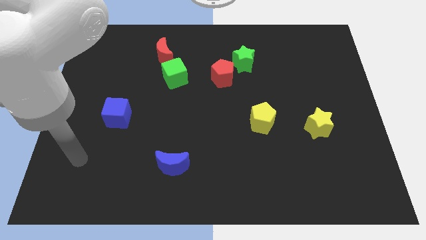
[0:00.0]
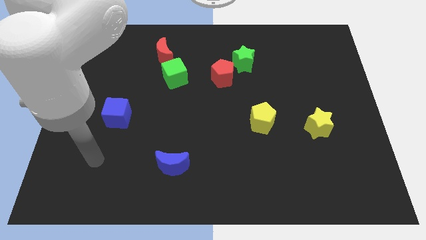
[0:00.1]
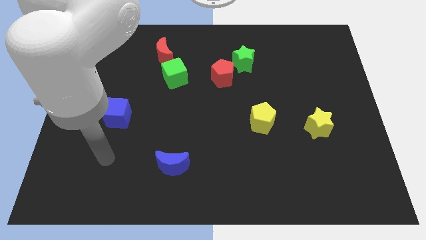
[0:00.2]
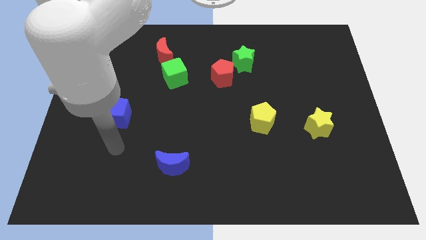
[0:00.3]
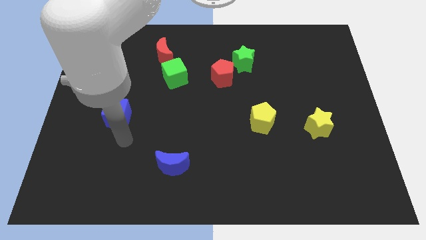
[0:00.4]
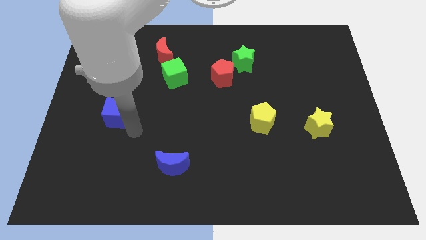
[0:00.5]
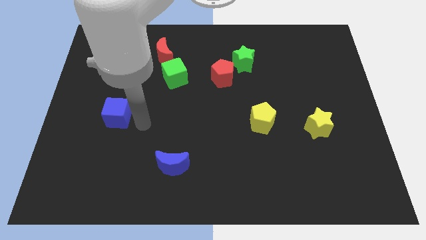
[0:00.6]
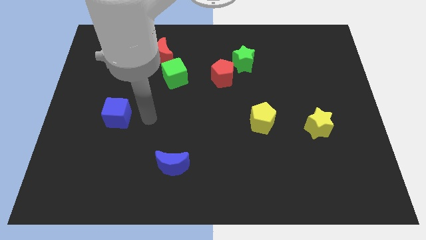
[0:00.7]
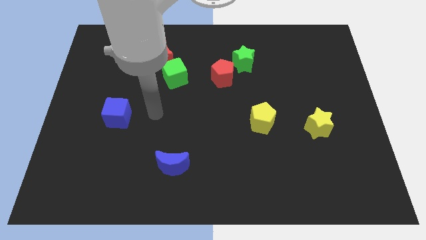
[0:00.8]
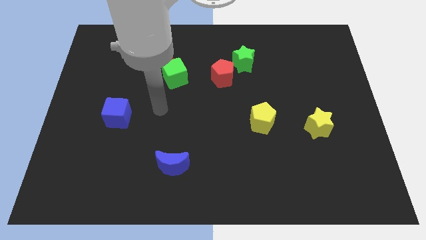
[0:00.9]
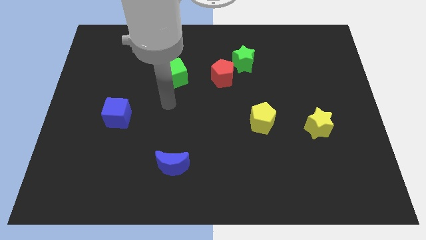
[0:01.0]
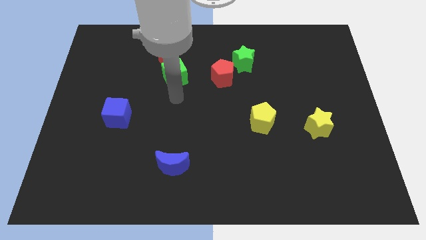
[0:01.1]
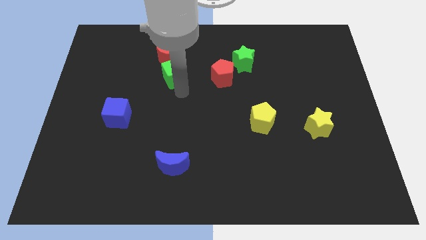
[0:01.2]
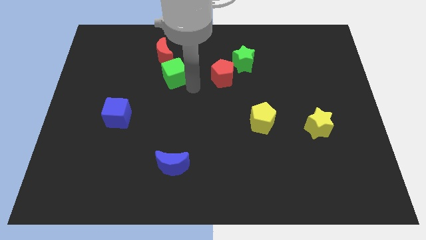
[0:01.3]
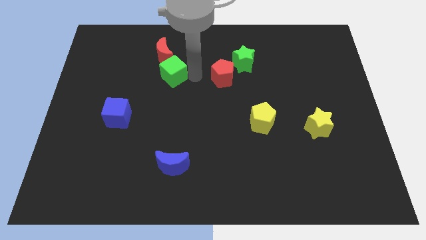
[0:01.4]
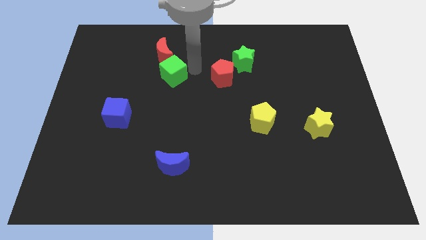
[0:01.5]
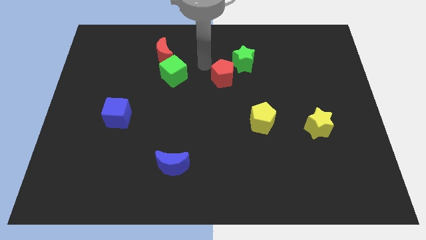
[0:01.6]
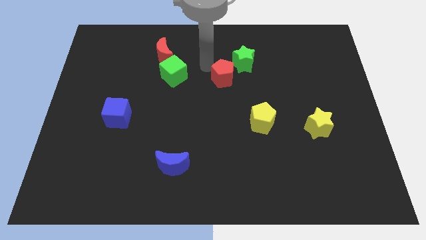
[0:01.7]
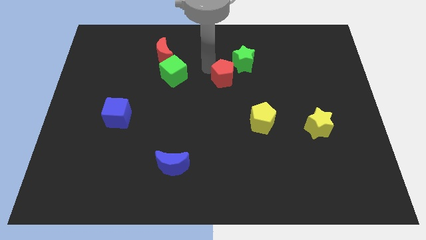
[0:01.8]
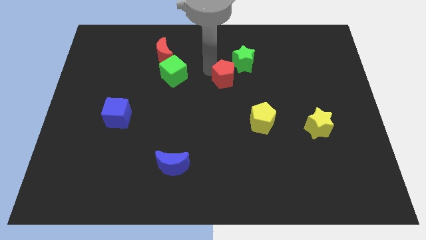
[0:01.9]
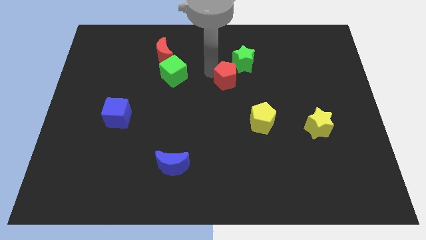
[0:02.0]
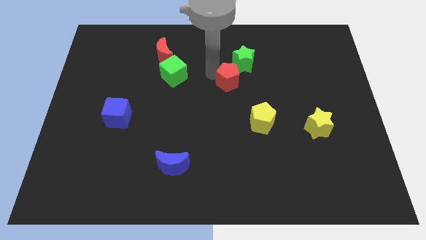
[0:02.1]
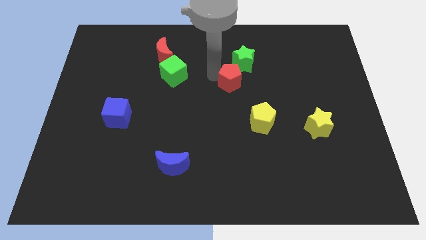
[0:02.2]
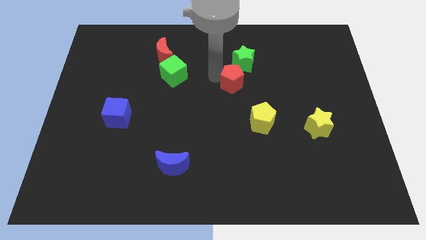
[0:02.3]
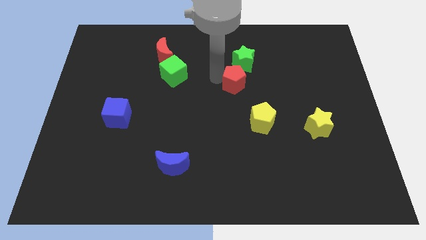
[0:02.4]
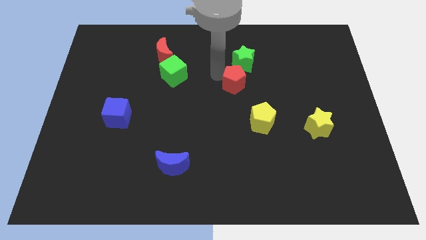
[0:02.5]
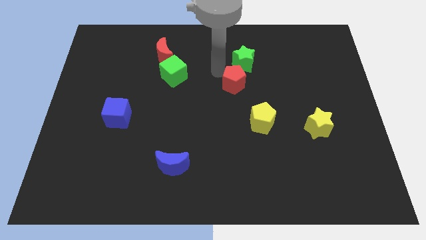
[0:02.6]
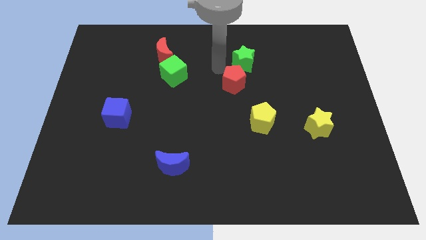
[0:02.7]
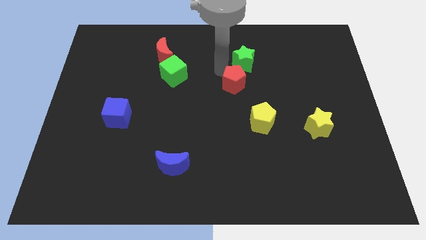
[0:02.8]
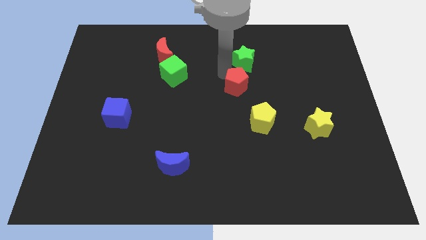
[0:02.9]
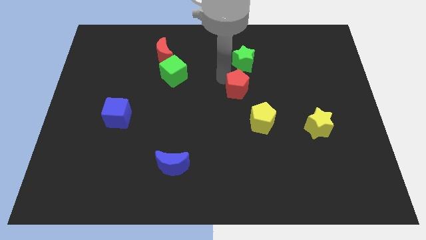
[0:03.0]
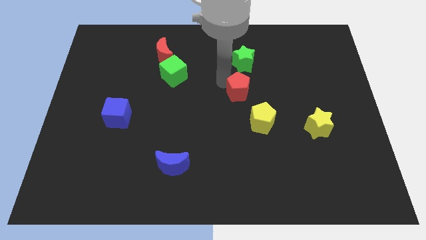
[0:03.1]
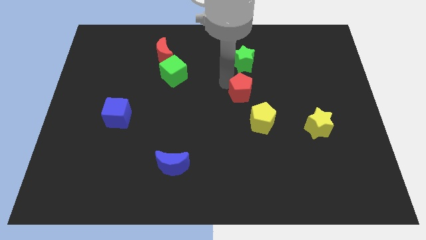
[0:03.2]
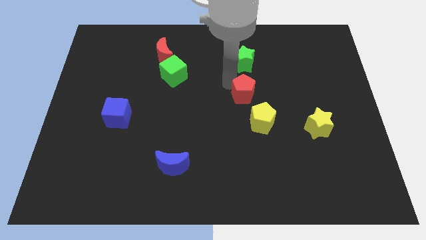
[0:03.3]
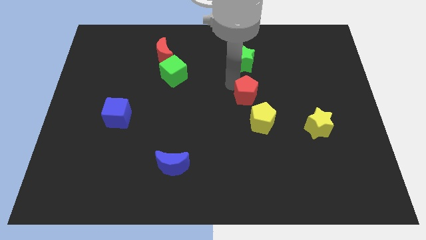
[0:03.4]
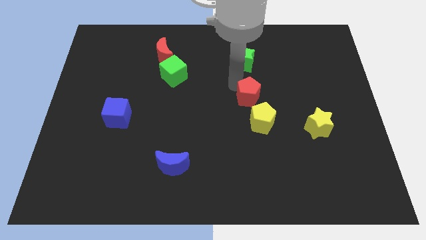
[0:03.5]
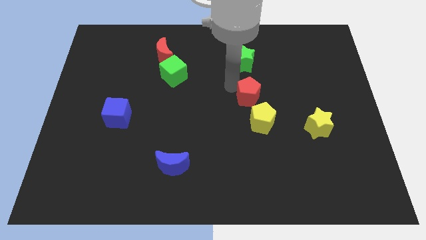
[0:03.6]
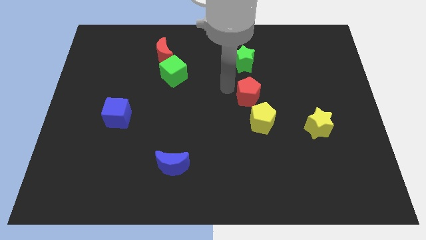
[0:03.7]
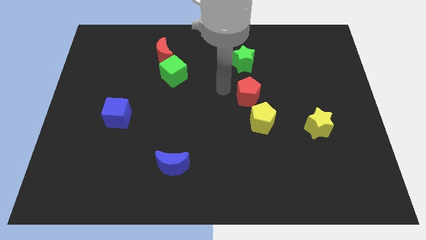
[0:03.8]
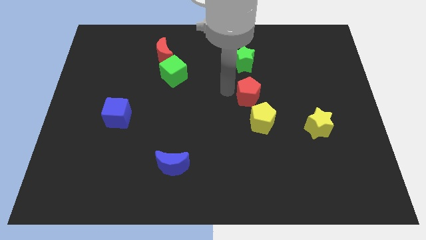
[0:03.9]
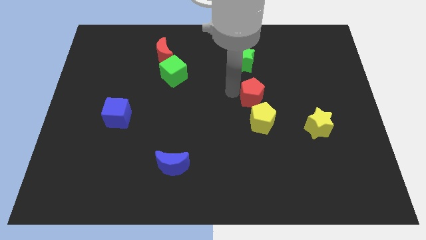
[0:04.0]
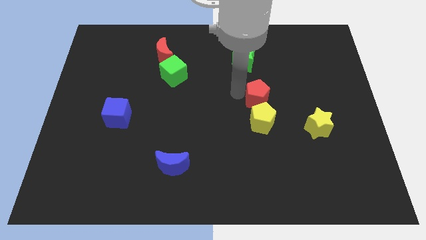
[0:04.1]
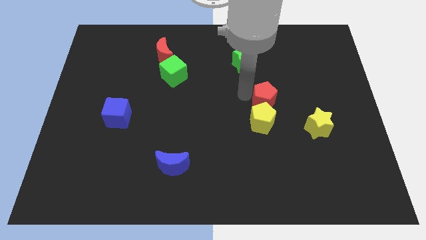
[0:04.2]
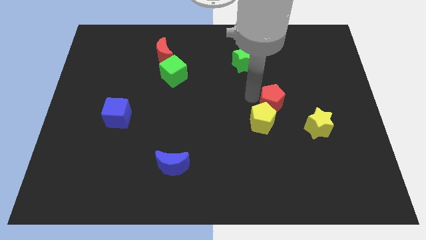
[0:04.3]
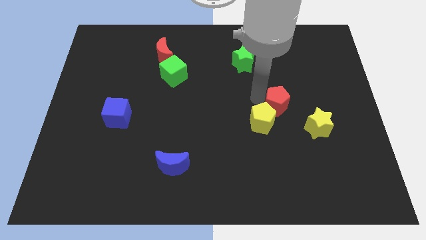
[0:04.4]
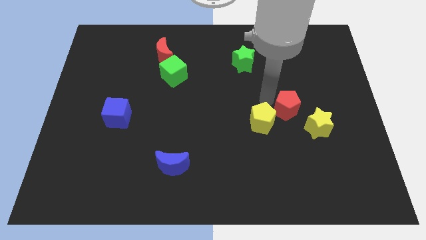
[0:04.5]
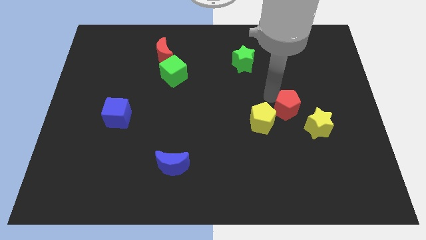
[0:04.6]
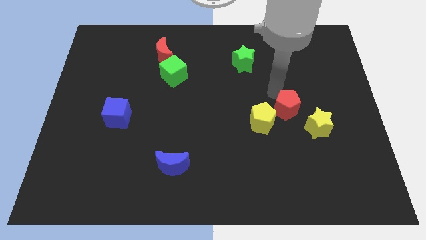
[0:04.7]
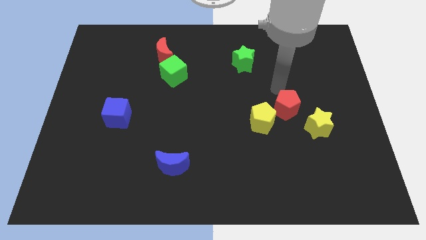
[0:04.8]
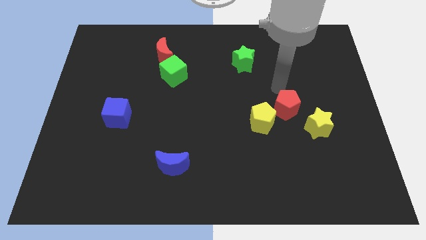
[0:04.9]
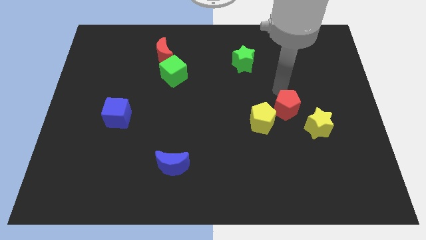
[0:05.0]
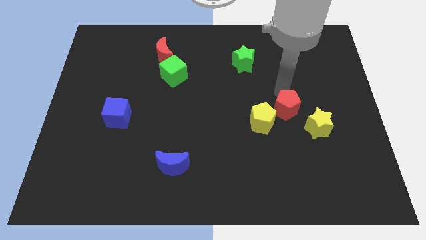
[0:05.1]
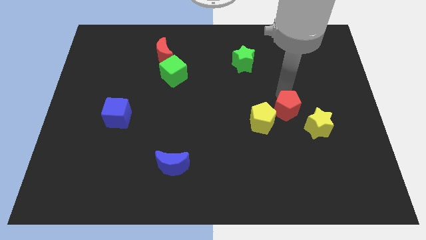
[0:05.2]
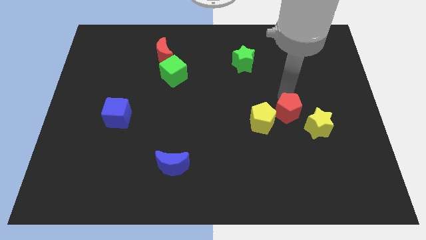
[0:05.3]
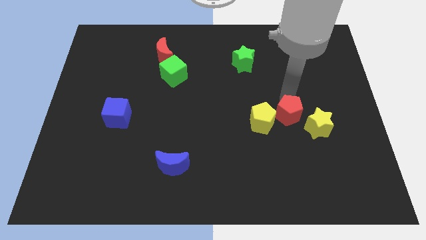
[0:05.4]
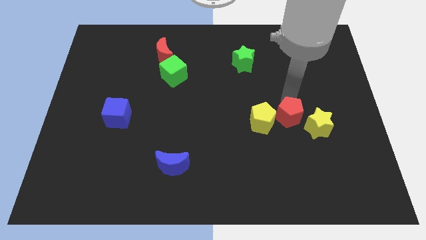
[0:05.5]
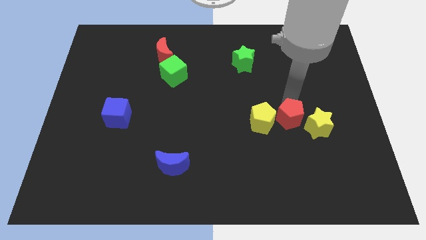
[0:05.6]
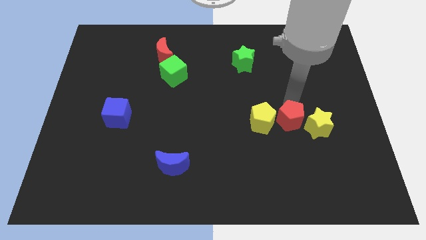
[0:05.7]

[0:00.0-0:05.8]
slide the red pentagon down and to the right

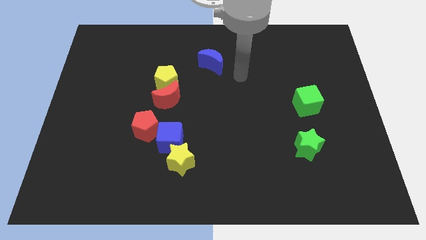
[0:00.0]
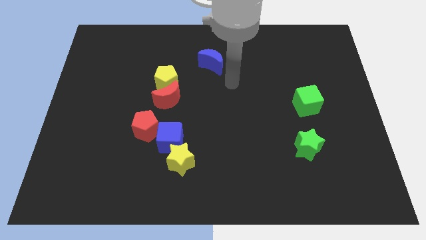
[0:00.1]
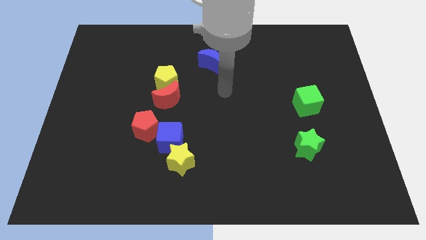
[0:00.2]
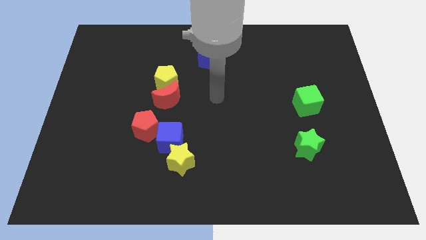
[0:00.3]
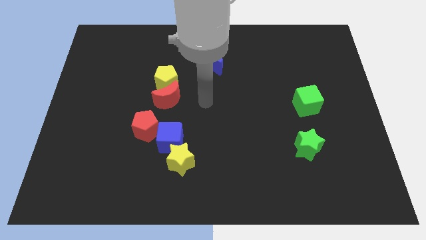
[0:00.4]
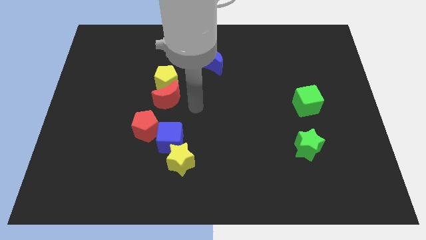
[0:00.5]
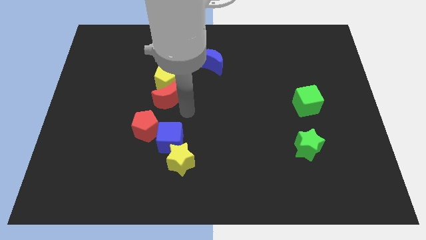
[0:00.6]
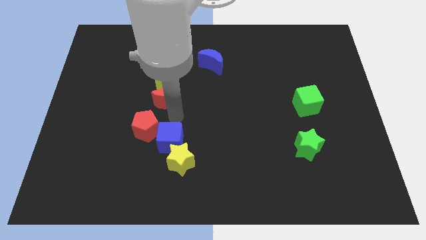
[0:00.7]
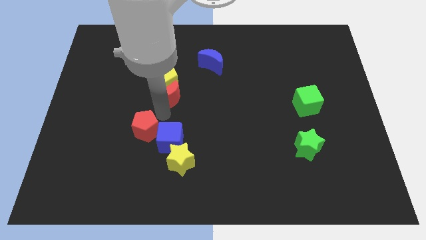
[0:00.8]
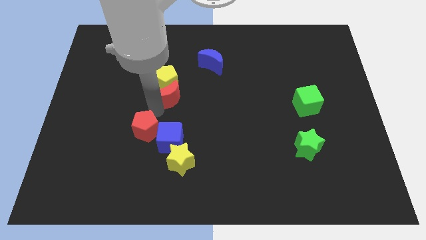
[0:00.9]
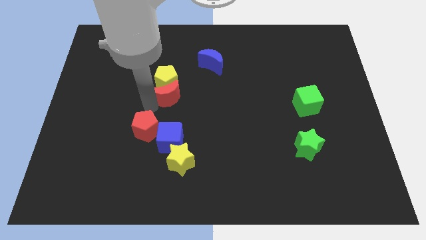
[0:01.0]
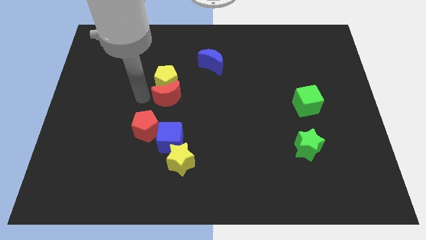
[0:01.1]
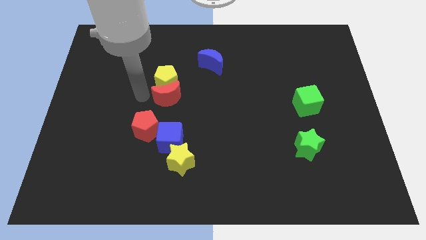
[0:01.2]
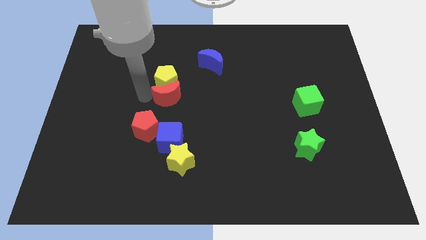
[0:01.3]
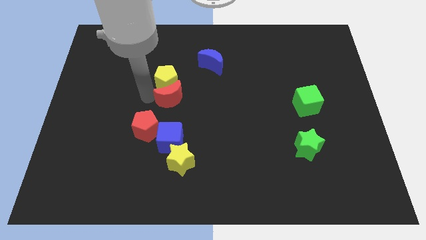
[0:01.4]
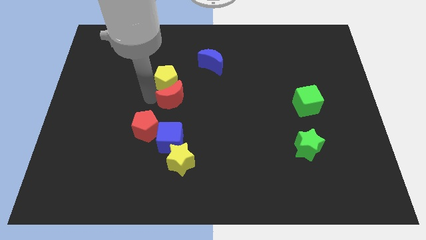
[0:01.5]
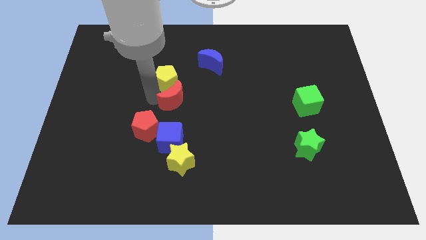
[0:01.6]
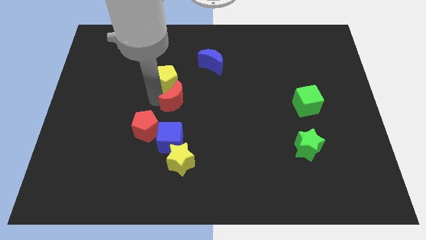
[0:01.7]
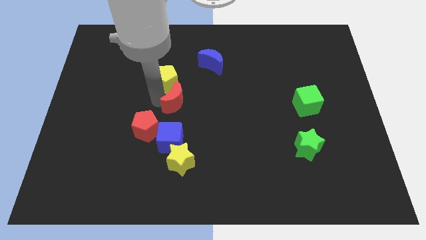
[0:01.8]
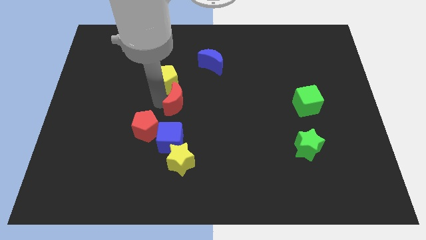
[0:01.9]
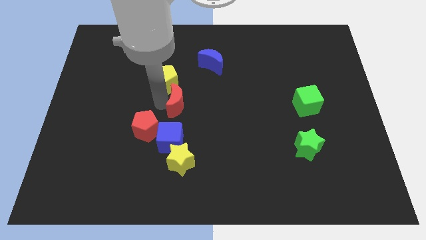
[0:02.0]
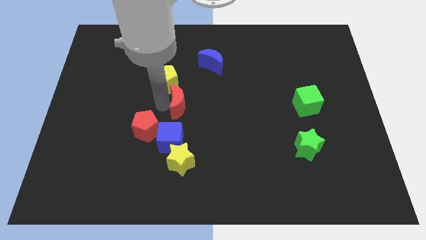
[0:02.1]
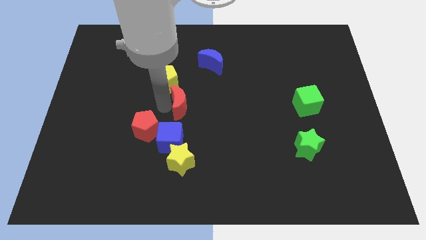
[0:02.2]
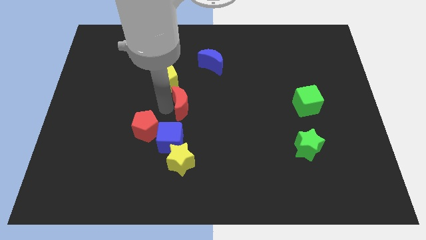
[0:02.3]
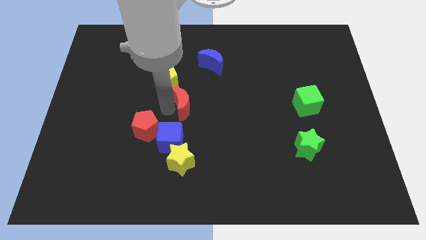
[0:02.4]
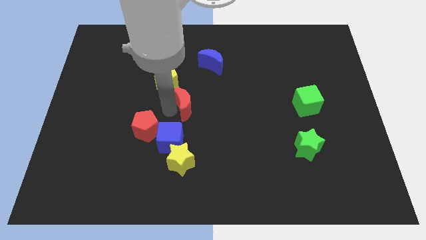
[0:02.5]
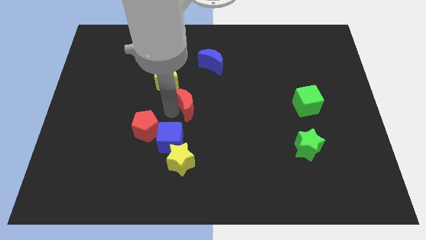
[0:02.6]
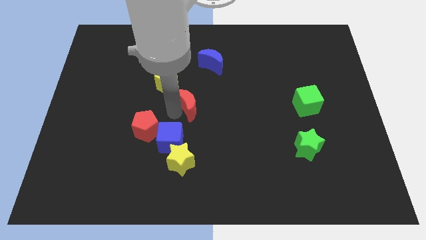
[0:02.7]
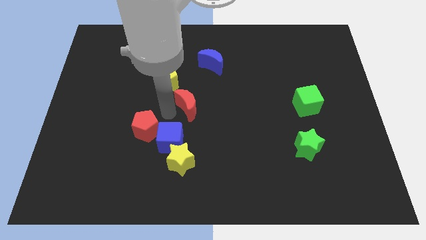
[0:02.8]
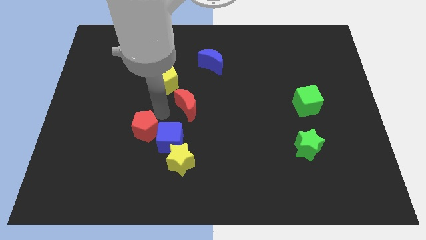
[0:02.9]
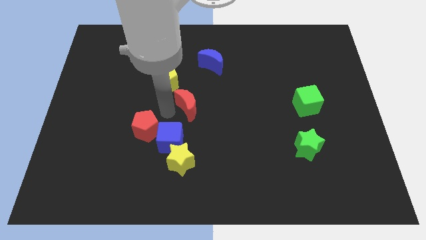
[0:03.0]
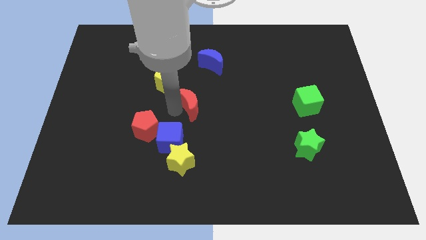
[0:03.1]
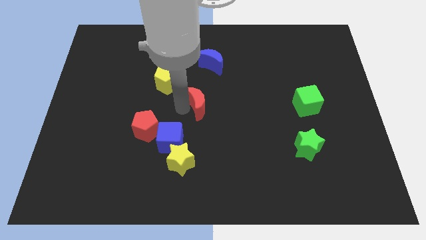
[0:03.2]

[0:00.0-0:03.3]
move the red moon a little bit right
